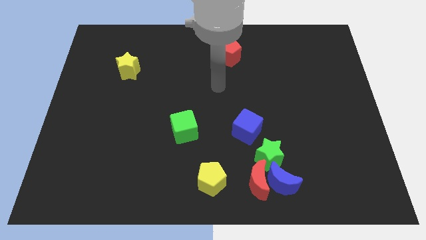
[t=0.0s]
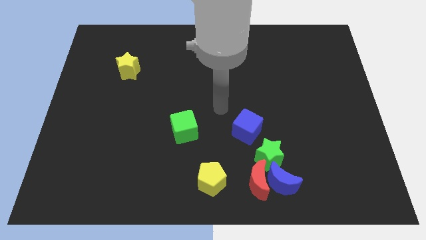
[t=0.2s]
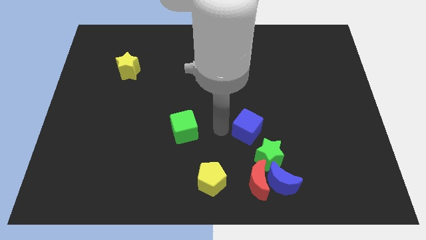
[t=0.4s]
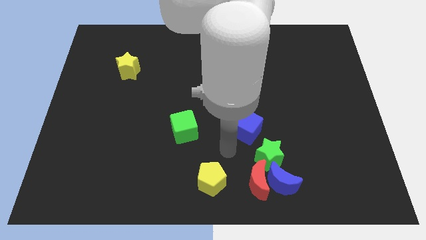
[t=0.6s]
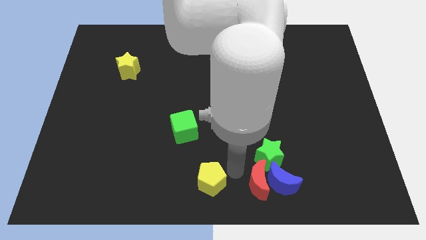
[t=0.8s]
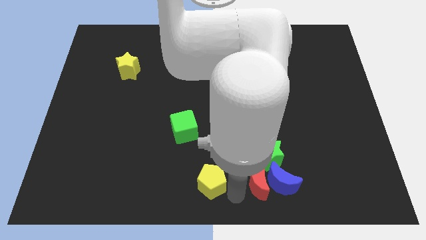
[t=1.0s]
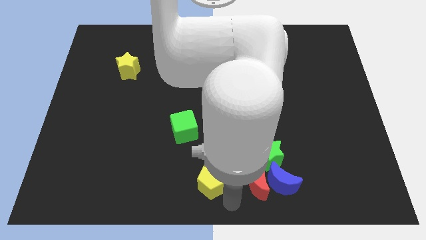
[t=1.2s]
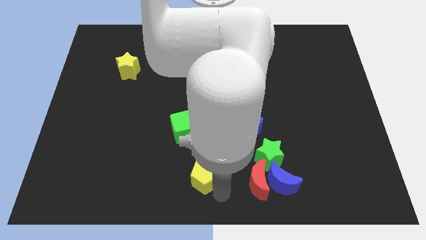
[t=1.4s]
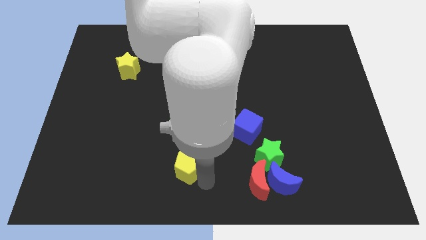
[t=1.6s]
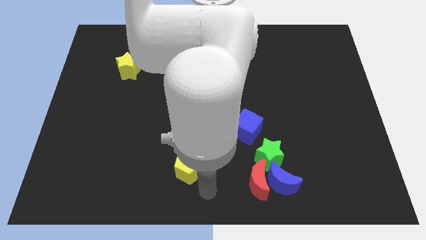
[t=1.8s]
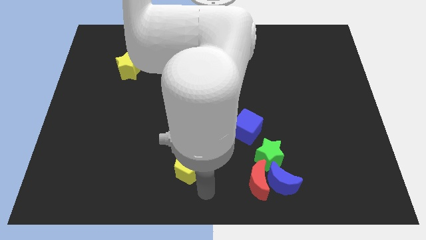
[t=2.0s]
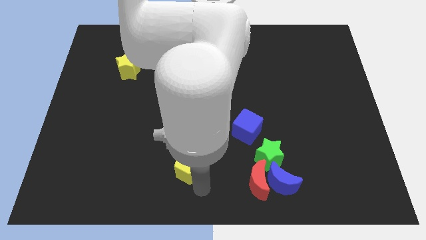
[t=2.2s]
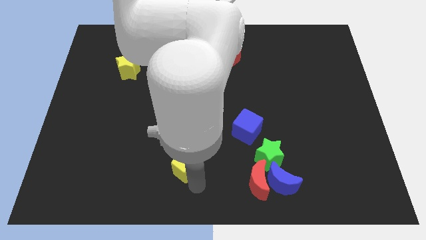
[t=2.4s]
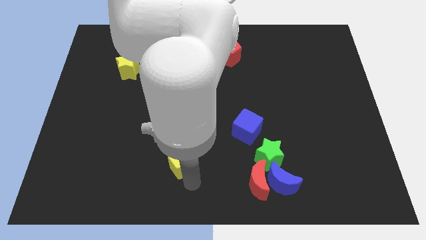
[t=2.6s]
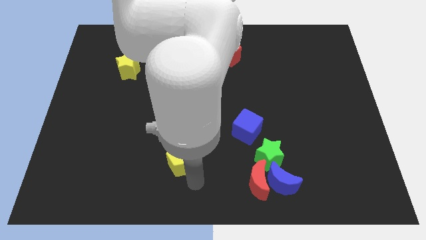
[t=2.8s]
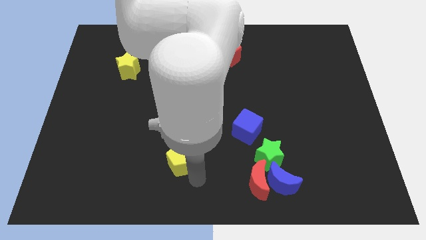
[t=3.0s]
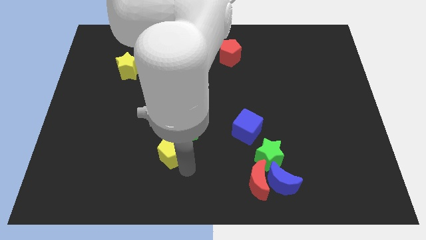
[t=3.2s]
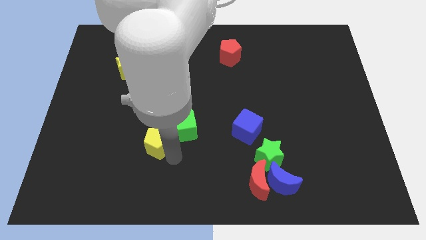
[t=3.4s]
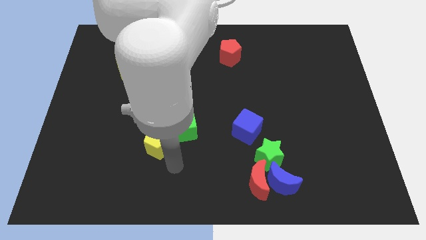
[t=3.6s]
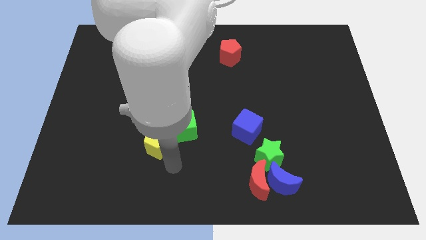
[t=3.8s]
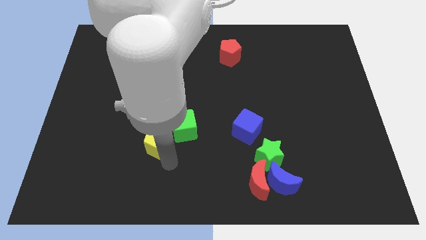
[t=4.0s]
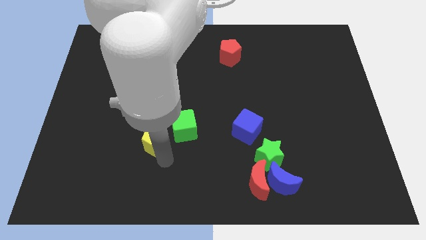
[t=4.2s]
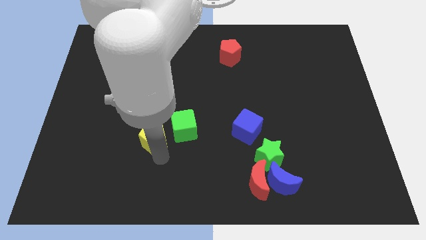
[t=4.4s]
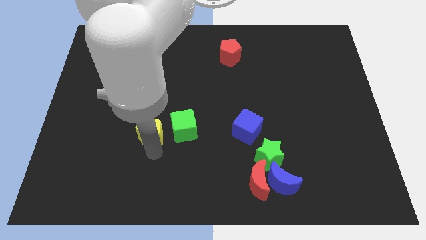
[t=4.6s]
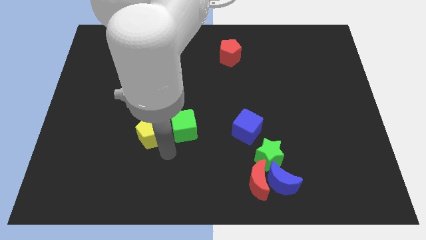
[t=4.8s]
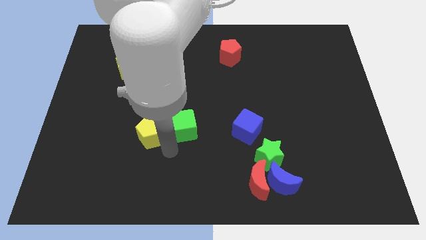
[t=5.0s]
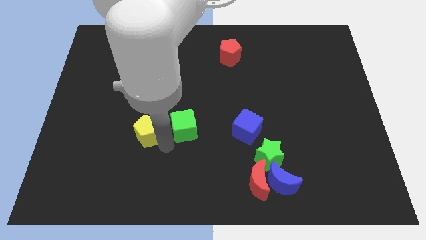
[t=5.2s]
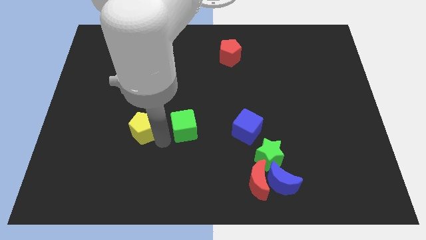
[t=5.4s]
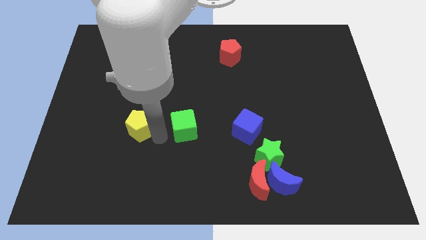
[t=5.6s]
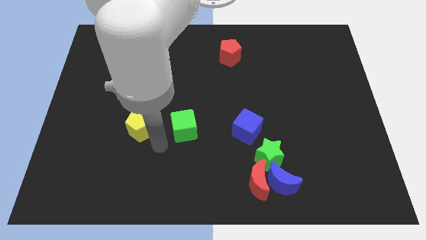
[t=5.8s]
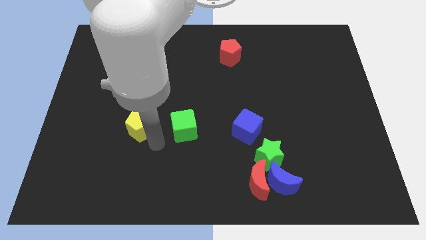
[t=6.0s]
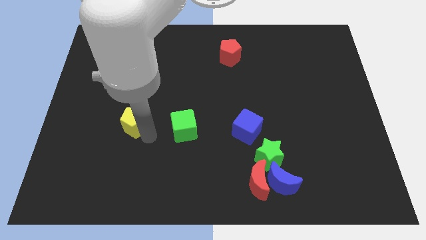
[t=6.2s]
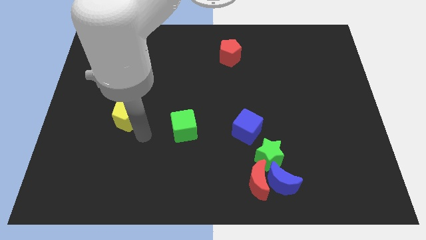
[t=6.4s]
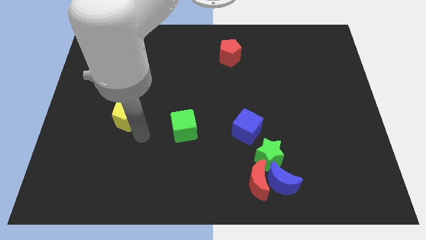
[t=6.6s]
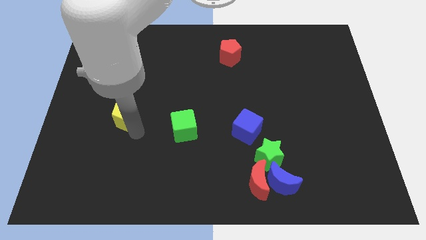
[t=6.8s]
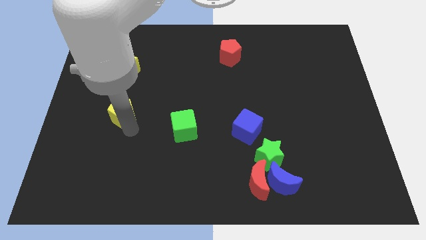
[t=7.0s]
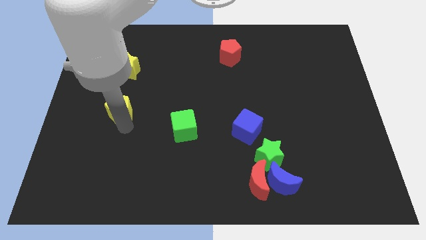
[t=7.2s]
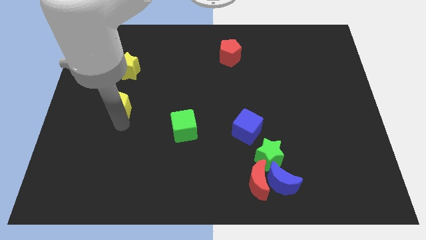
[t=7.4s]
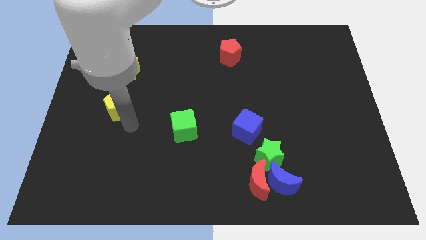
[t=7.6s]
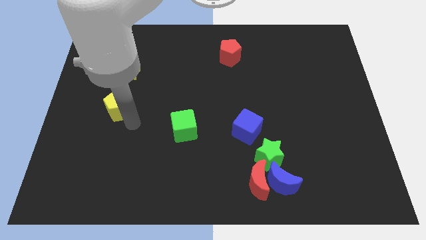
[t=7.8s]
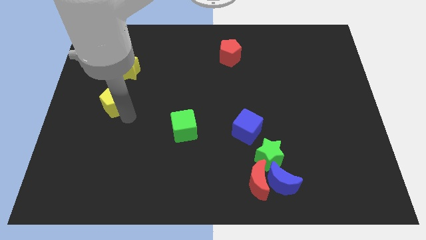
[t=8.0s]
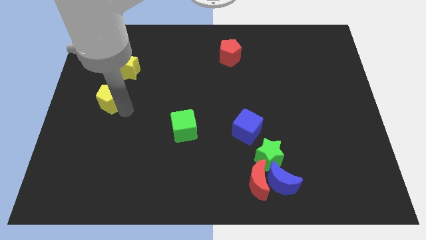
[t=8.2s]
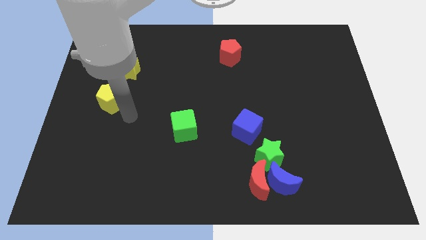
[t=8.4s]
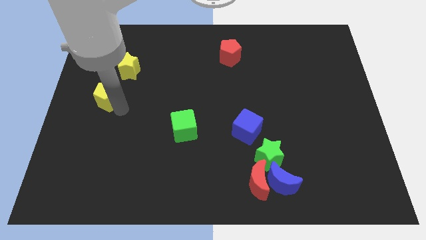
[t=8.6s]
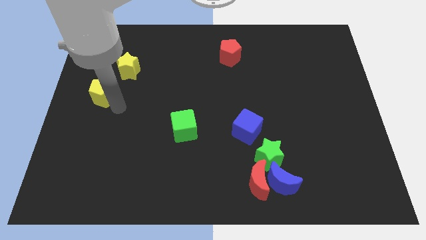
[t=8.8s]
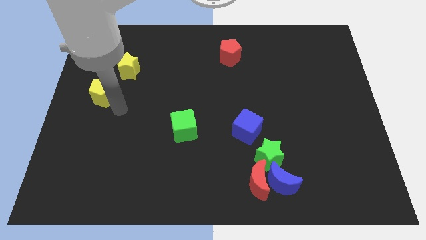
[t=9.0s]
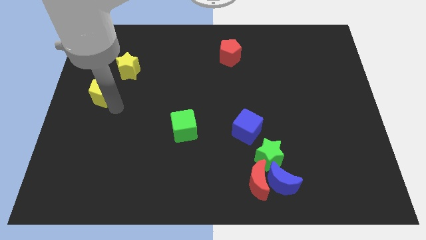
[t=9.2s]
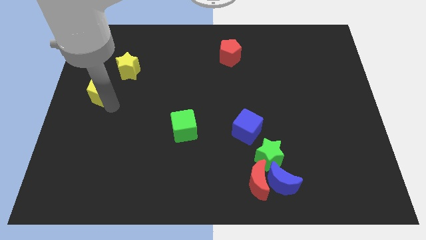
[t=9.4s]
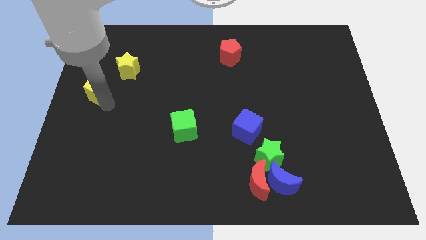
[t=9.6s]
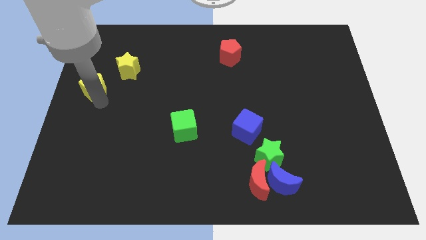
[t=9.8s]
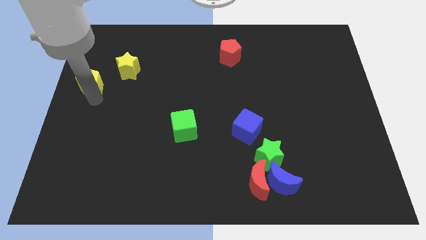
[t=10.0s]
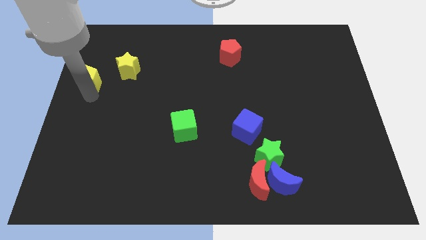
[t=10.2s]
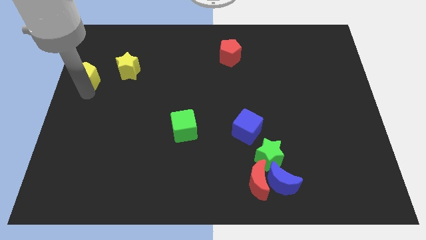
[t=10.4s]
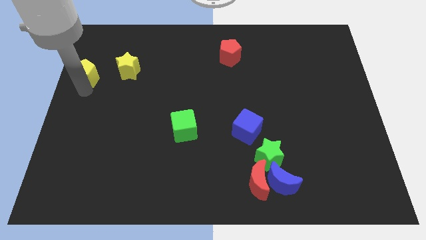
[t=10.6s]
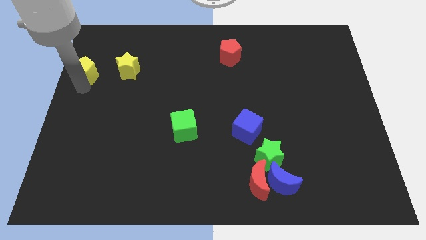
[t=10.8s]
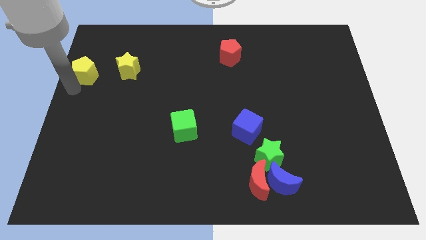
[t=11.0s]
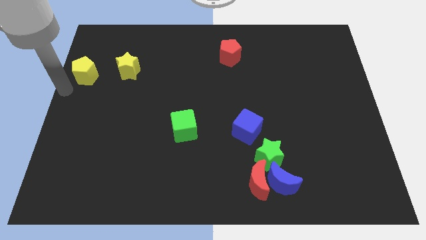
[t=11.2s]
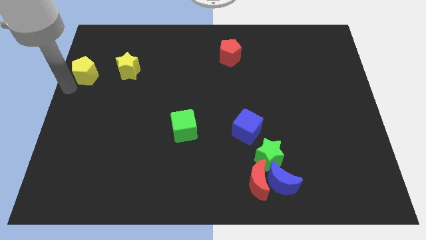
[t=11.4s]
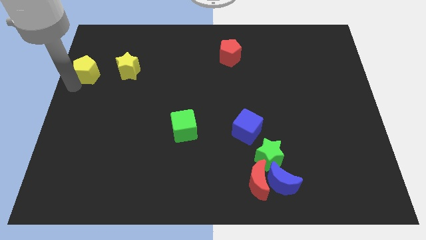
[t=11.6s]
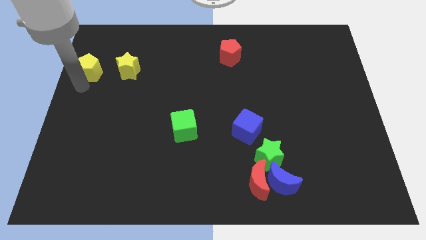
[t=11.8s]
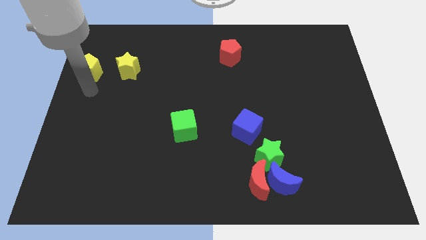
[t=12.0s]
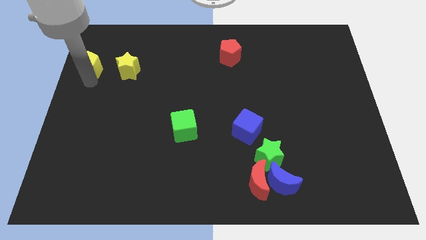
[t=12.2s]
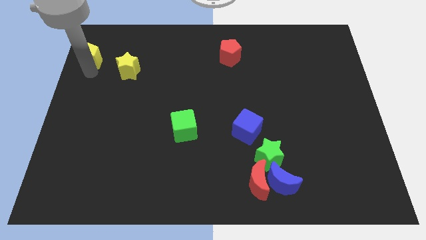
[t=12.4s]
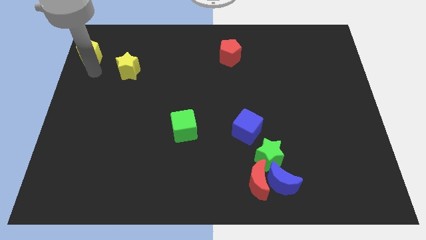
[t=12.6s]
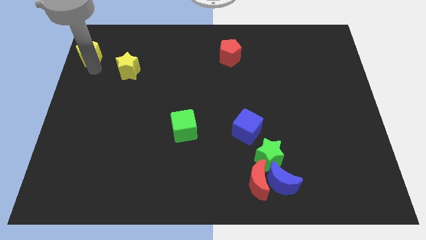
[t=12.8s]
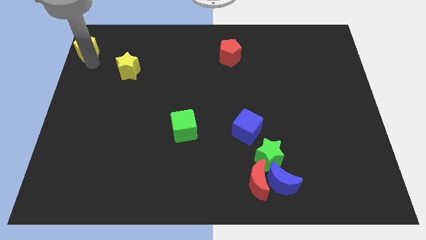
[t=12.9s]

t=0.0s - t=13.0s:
put the yellow pentagon to the top left of the board
